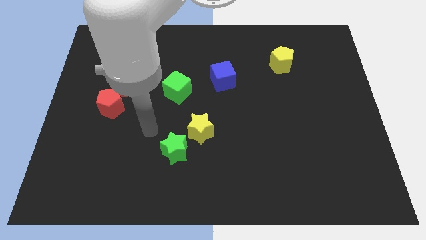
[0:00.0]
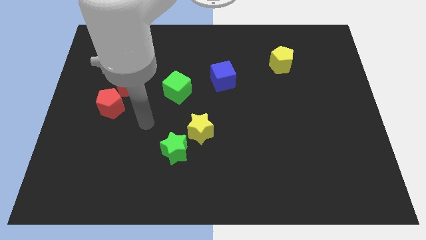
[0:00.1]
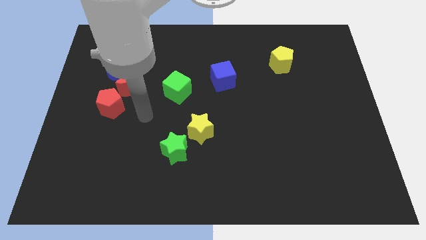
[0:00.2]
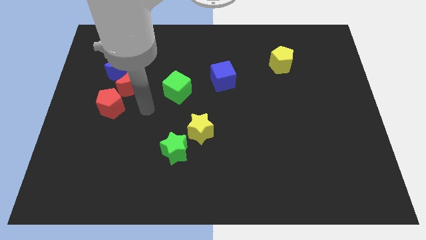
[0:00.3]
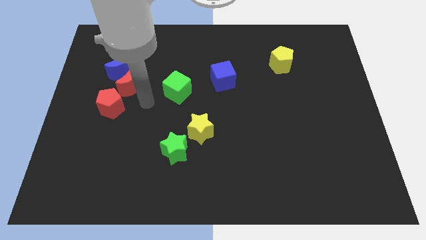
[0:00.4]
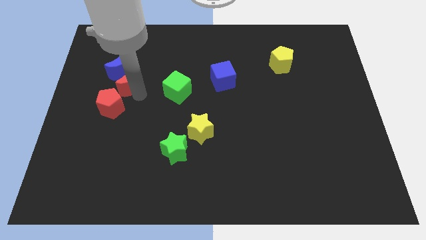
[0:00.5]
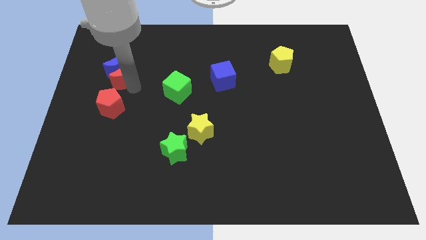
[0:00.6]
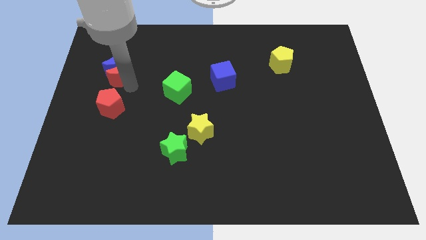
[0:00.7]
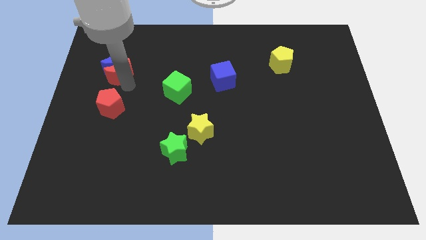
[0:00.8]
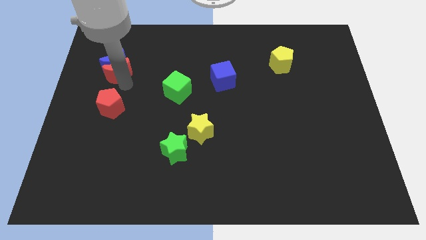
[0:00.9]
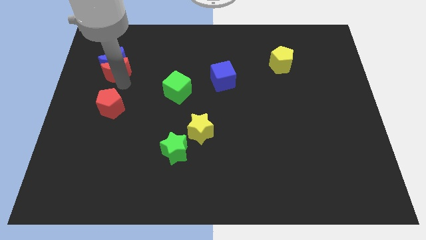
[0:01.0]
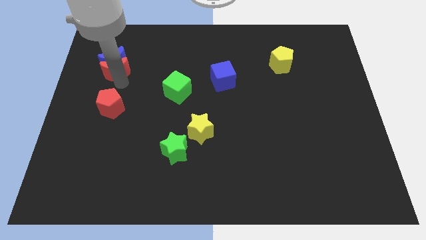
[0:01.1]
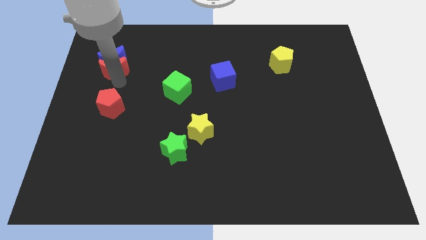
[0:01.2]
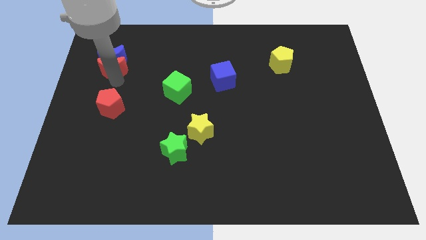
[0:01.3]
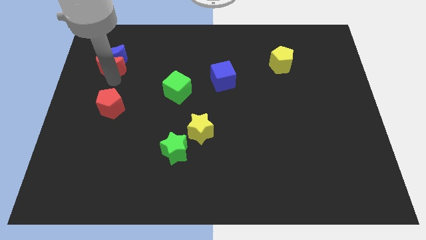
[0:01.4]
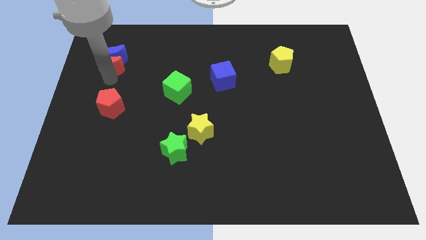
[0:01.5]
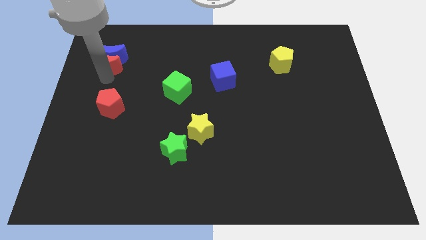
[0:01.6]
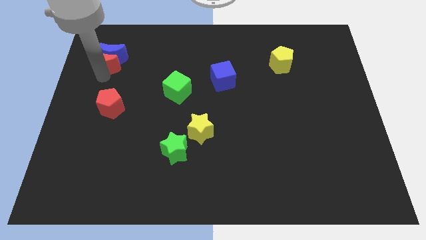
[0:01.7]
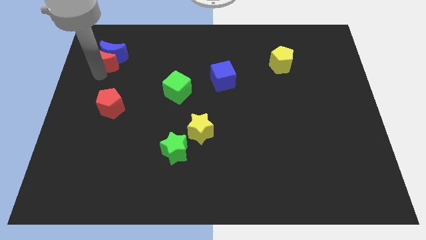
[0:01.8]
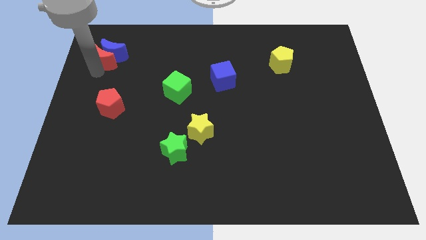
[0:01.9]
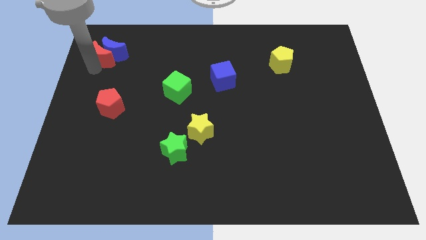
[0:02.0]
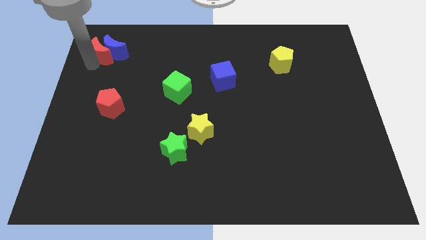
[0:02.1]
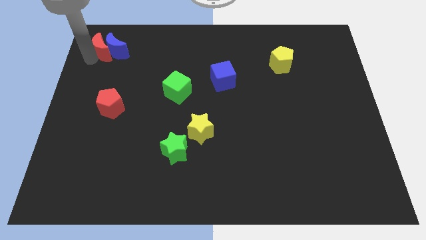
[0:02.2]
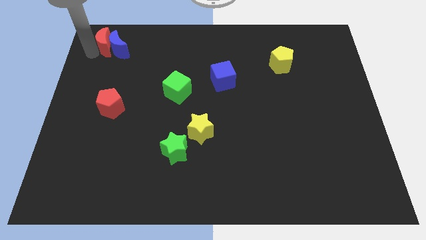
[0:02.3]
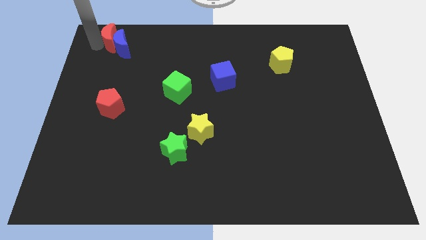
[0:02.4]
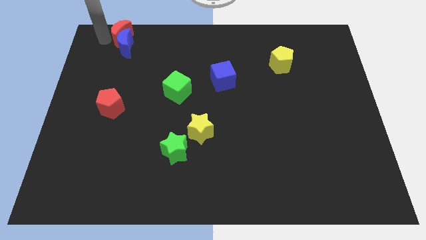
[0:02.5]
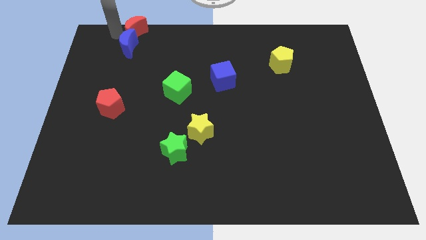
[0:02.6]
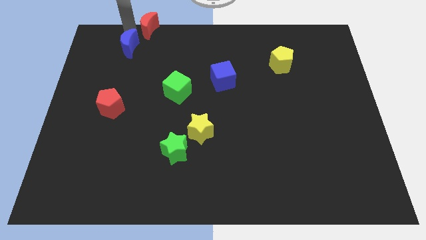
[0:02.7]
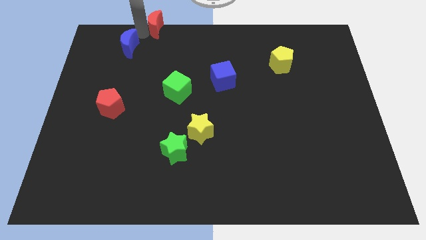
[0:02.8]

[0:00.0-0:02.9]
move the blue moon away from the red moon

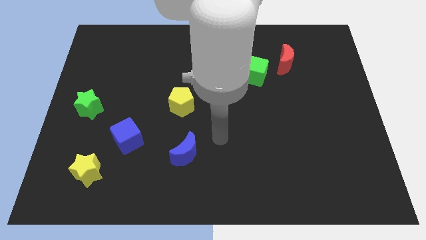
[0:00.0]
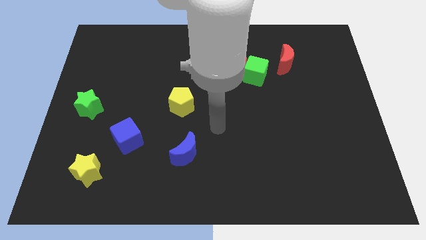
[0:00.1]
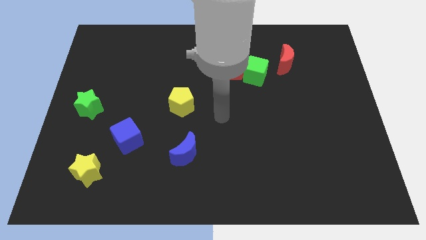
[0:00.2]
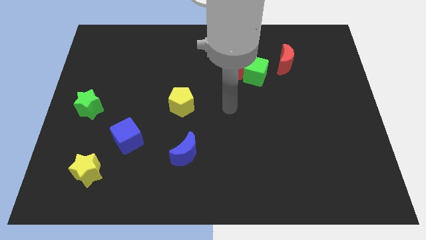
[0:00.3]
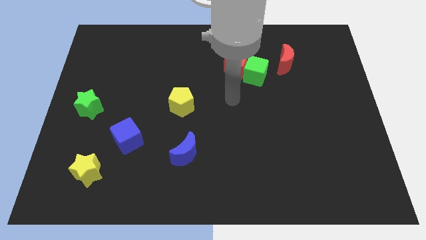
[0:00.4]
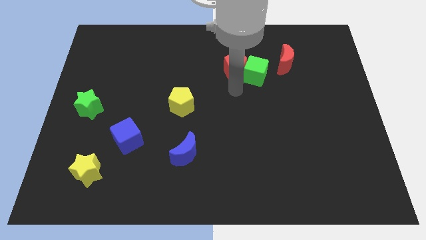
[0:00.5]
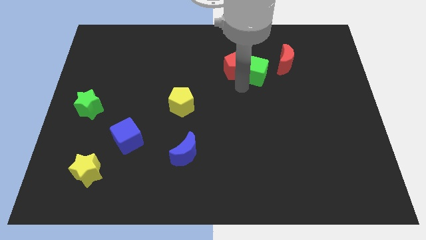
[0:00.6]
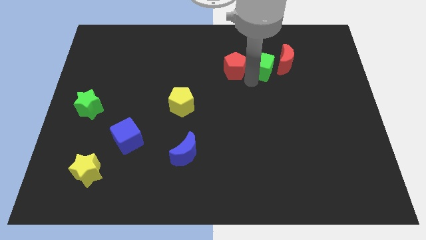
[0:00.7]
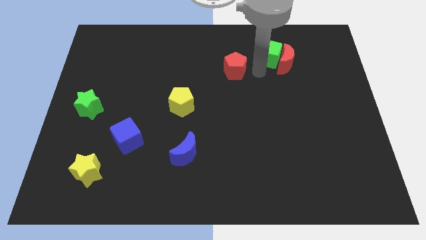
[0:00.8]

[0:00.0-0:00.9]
separate the red pentagon from the green cube

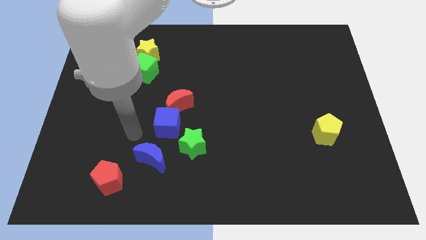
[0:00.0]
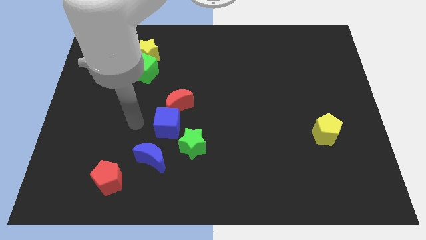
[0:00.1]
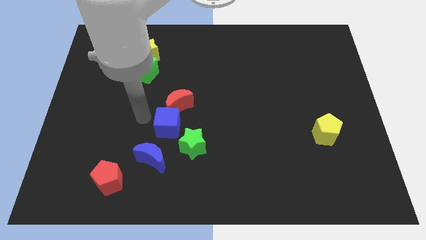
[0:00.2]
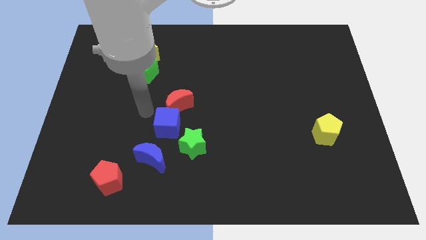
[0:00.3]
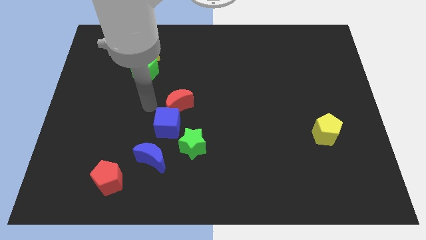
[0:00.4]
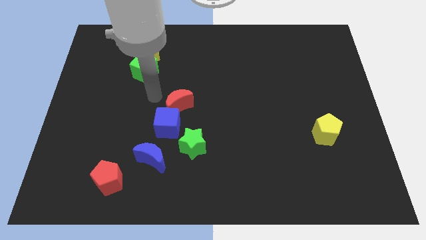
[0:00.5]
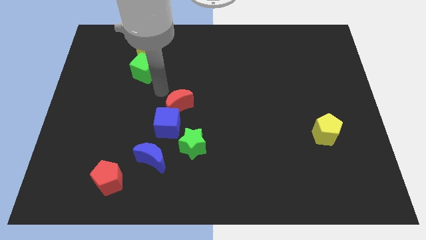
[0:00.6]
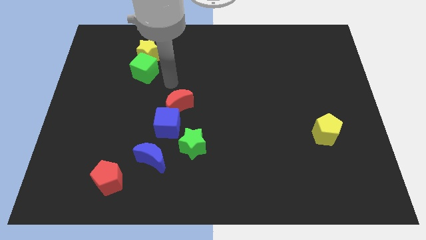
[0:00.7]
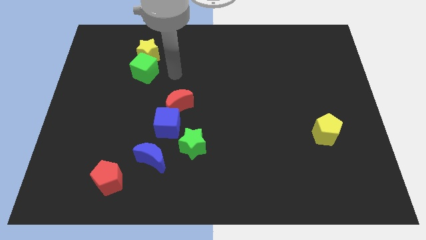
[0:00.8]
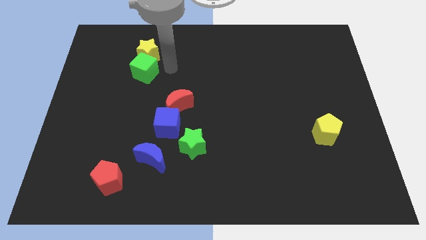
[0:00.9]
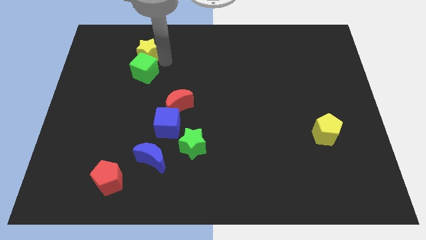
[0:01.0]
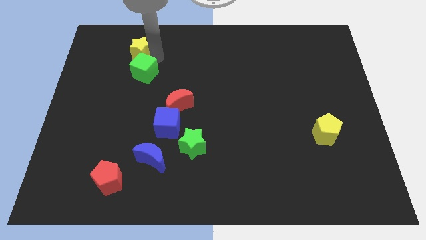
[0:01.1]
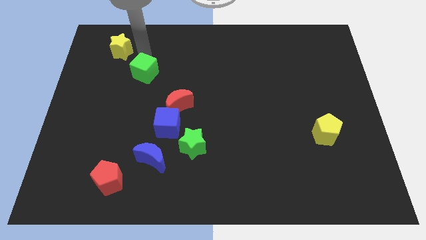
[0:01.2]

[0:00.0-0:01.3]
separate the green cube from the yellow star

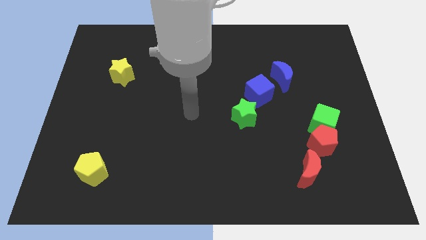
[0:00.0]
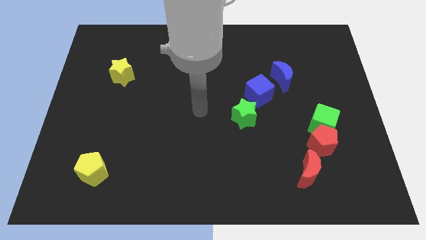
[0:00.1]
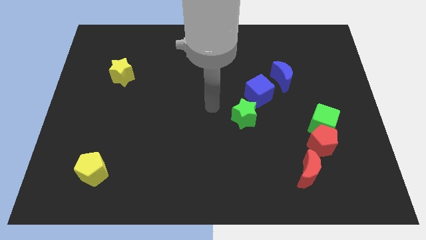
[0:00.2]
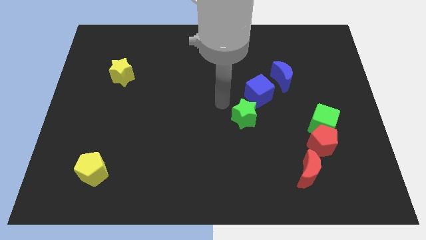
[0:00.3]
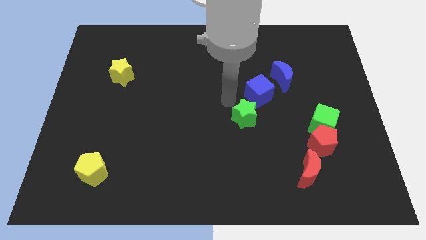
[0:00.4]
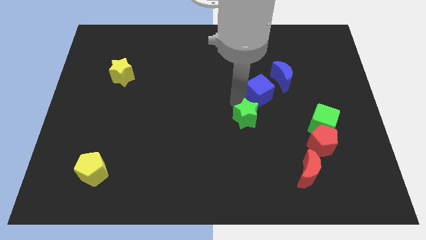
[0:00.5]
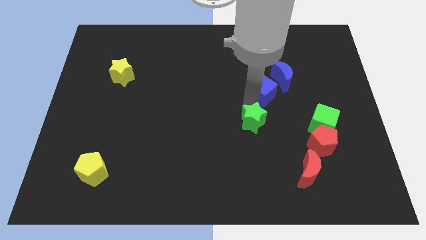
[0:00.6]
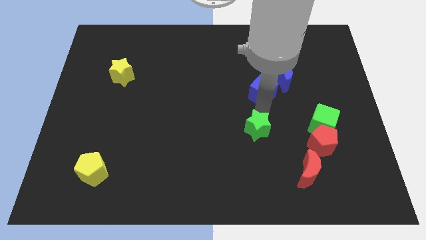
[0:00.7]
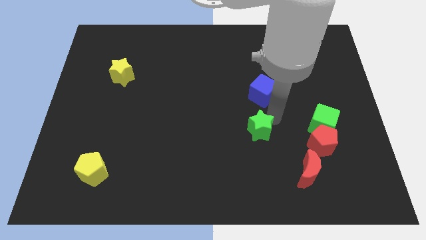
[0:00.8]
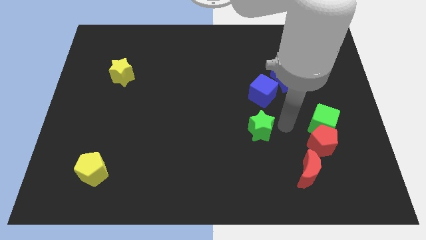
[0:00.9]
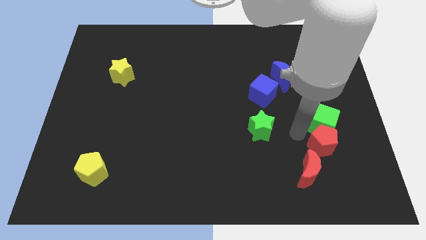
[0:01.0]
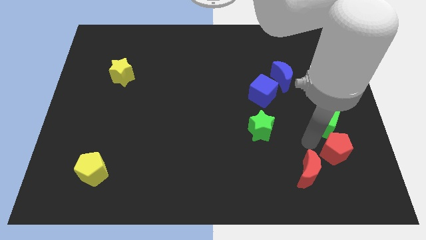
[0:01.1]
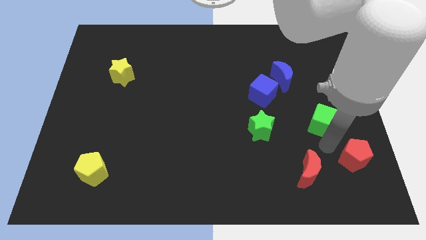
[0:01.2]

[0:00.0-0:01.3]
pull the green cube apart from the red pentagon

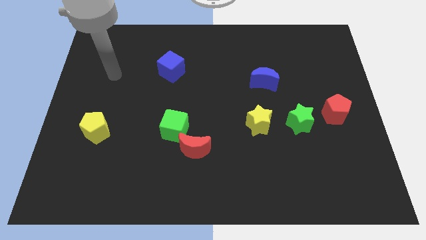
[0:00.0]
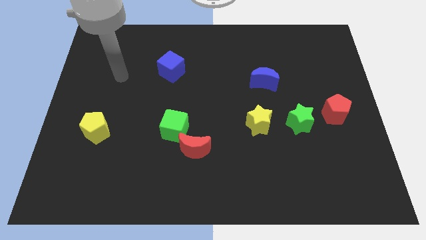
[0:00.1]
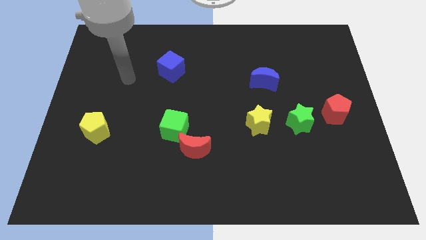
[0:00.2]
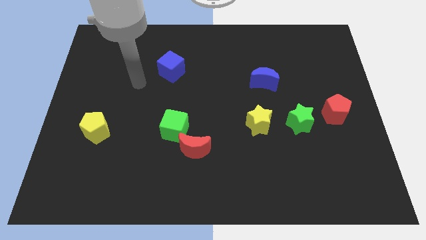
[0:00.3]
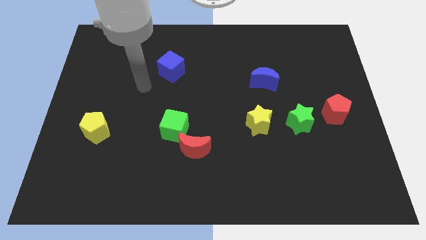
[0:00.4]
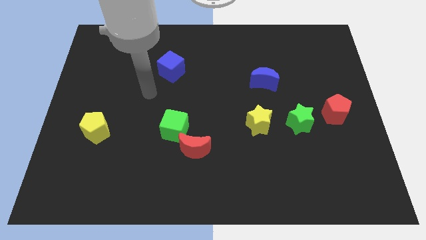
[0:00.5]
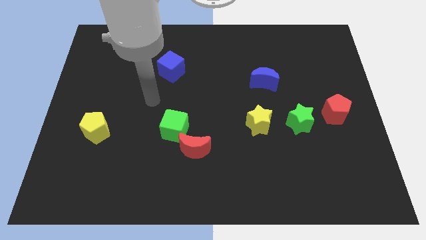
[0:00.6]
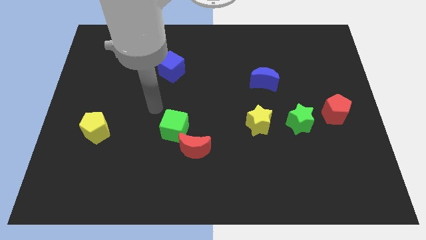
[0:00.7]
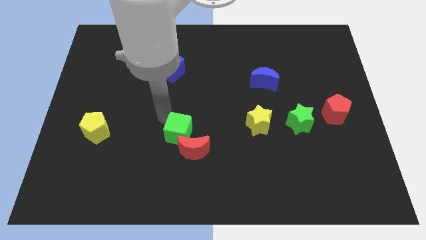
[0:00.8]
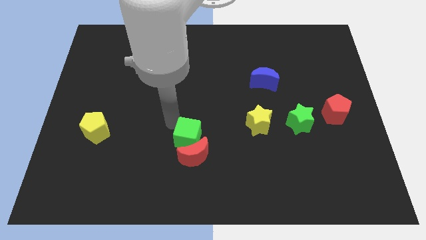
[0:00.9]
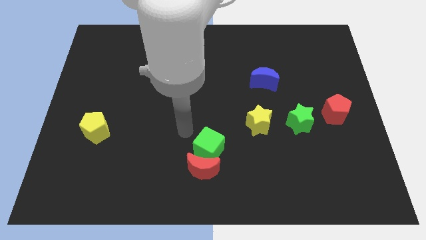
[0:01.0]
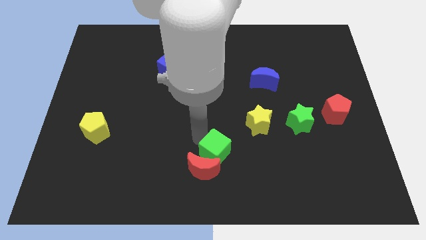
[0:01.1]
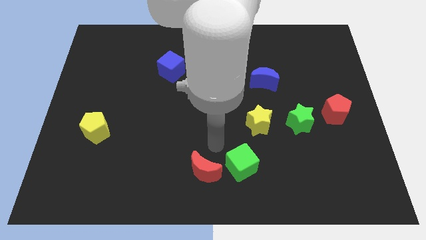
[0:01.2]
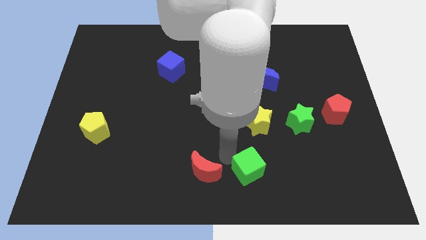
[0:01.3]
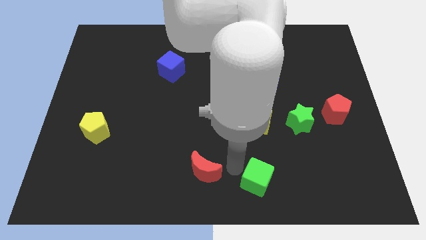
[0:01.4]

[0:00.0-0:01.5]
separate the red moon from the green cube

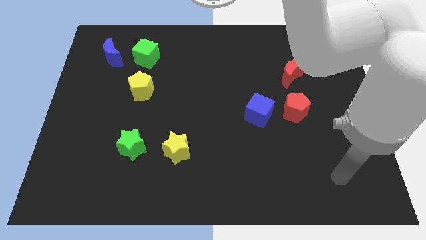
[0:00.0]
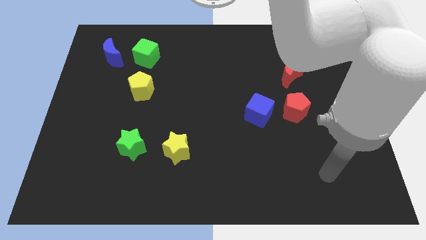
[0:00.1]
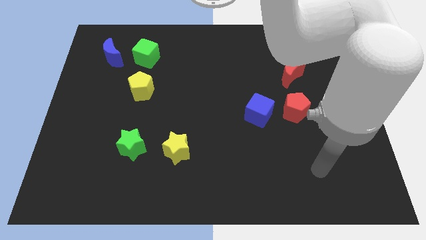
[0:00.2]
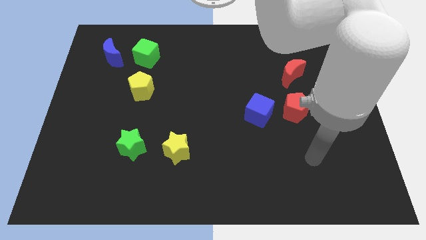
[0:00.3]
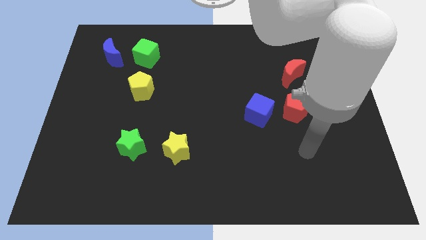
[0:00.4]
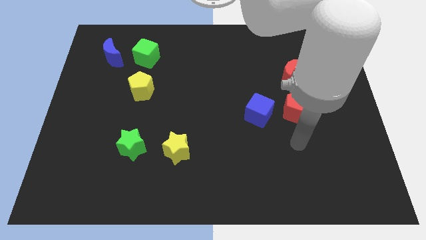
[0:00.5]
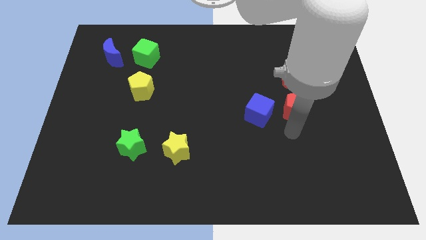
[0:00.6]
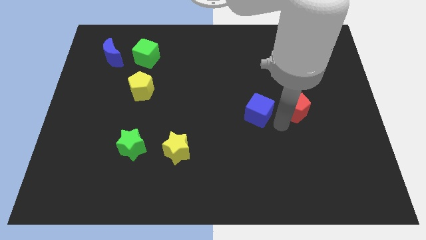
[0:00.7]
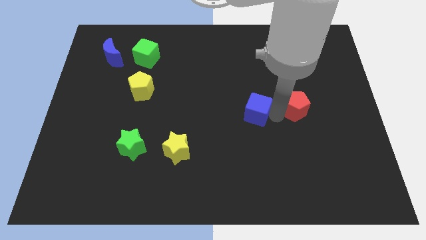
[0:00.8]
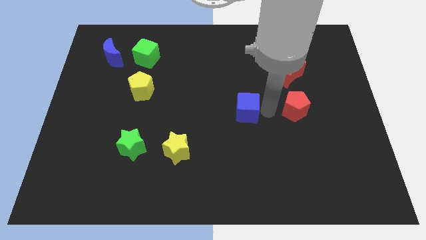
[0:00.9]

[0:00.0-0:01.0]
separate the red pentagon from the blue cube

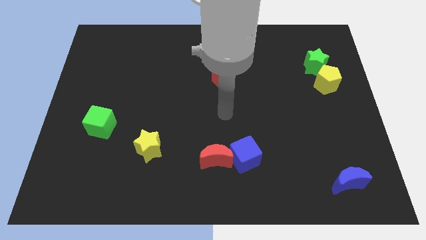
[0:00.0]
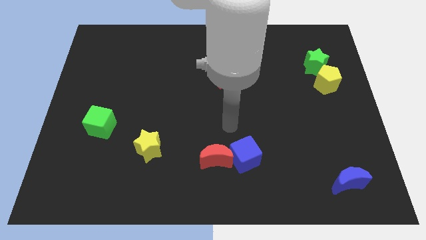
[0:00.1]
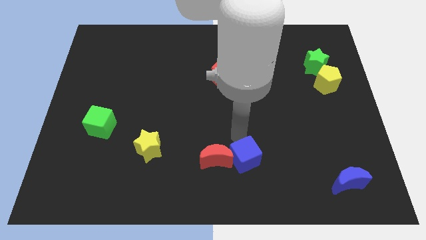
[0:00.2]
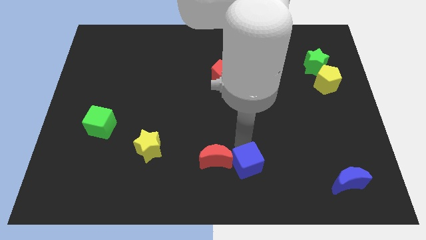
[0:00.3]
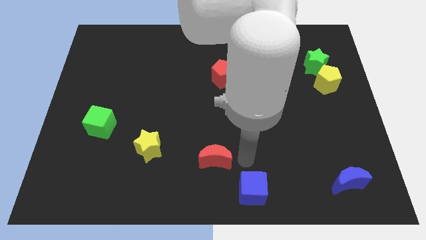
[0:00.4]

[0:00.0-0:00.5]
move the red moon away from the blue cube

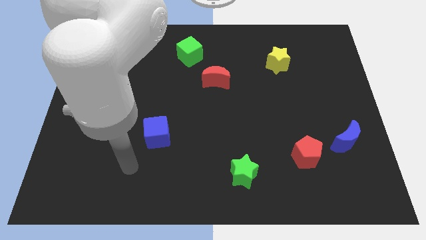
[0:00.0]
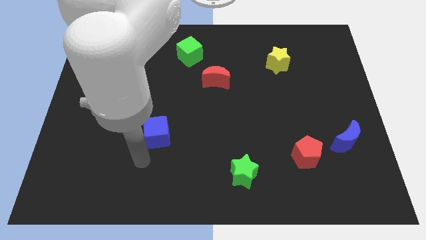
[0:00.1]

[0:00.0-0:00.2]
pull the red pentagon apart from the blue moon
